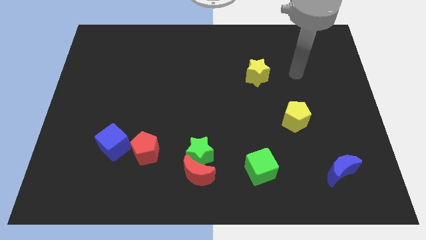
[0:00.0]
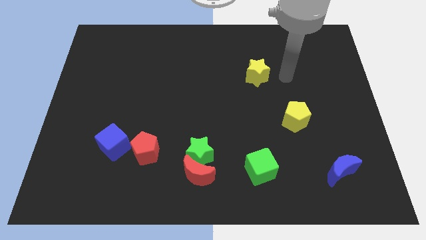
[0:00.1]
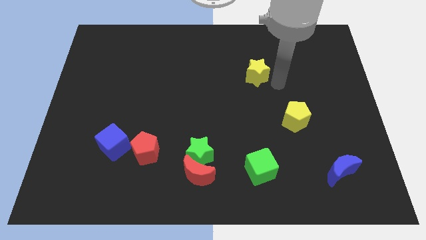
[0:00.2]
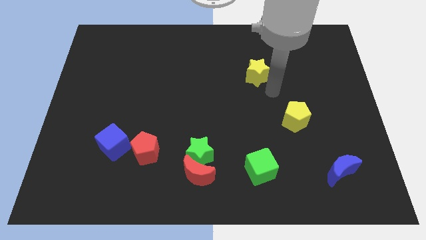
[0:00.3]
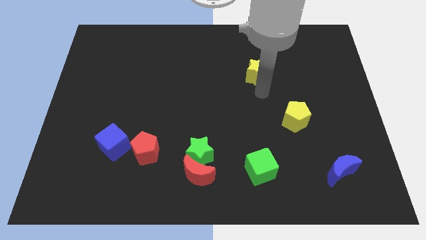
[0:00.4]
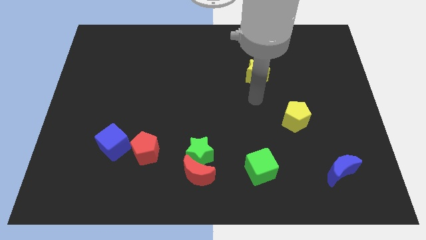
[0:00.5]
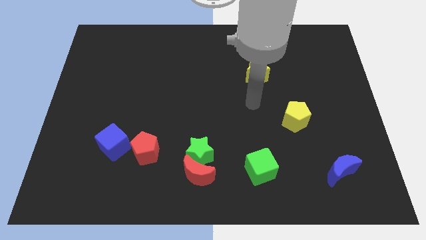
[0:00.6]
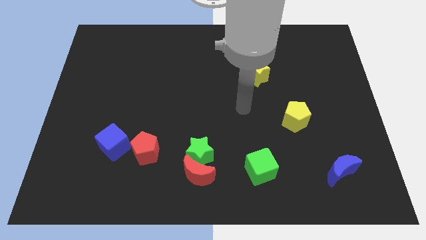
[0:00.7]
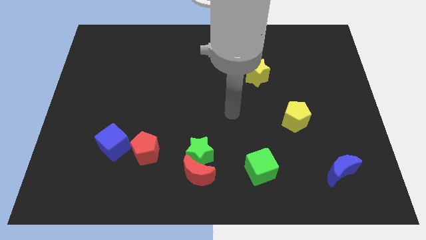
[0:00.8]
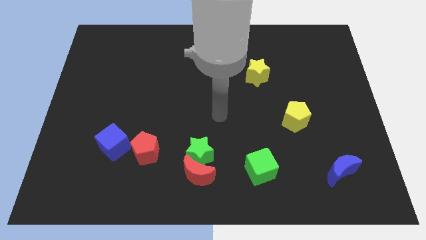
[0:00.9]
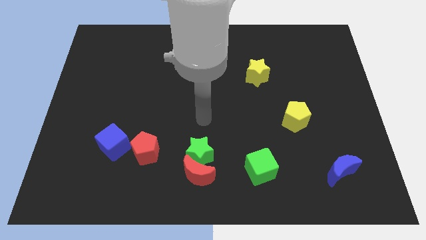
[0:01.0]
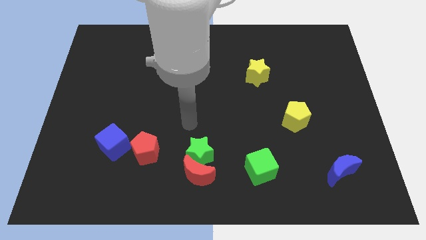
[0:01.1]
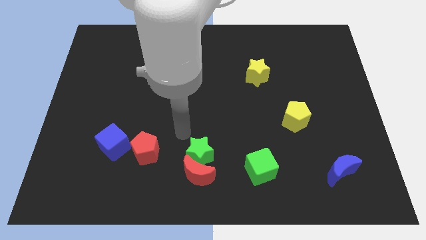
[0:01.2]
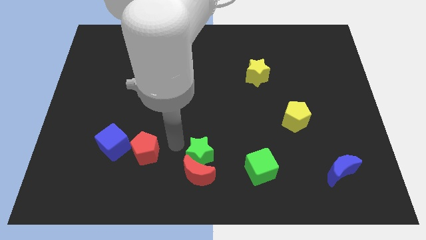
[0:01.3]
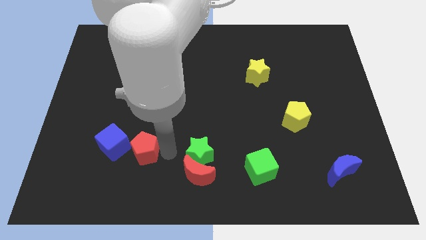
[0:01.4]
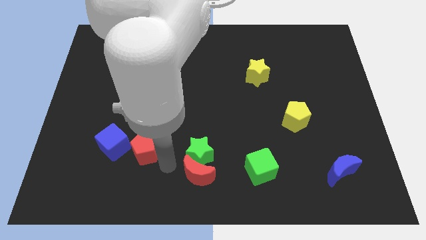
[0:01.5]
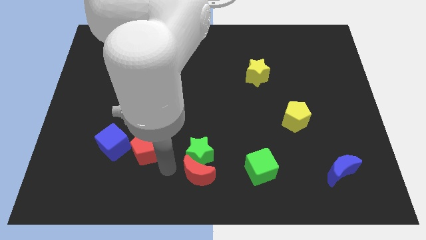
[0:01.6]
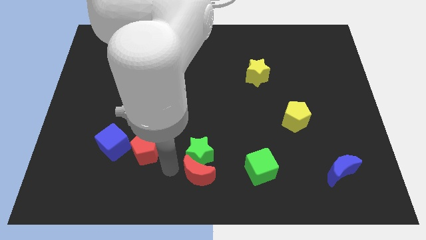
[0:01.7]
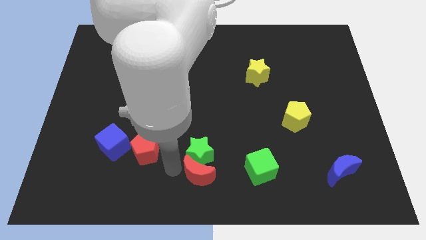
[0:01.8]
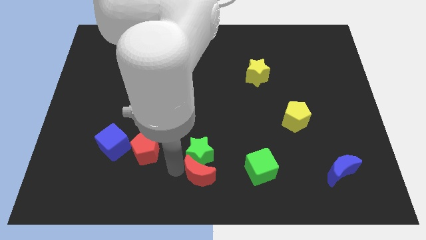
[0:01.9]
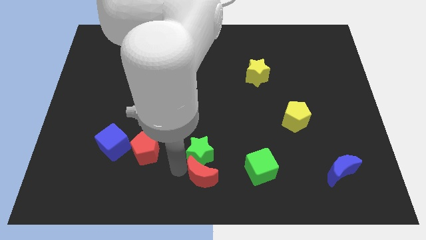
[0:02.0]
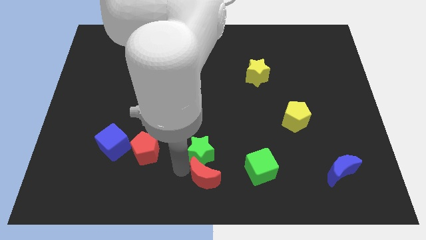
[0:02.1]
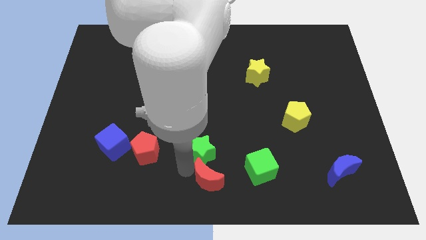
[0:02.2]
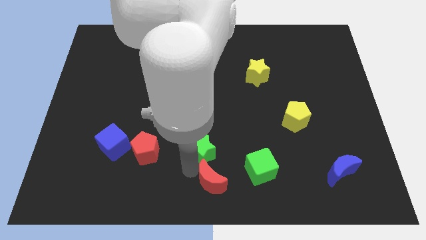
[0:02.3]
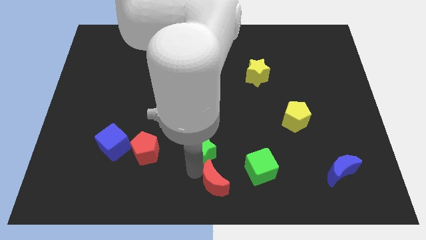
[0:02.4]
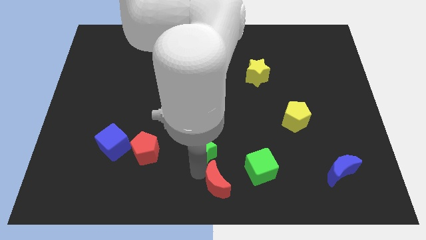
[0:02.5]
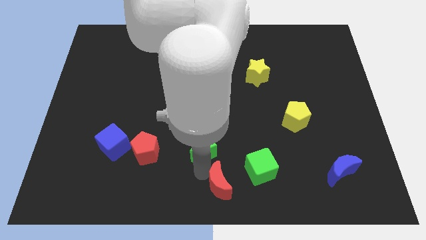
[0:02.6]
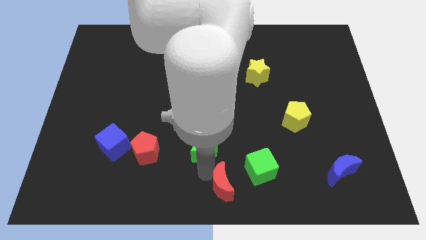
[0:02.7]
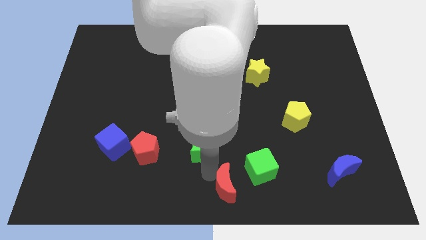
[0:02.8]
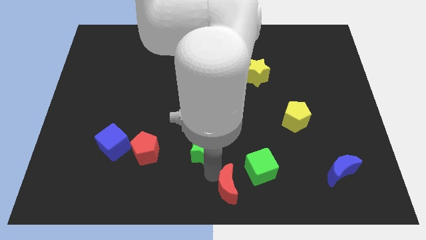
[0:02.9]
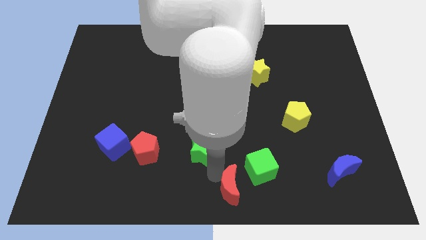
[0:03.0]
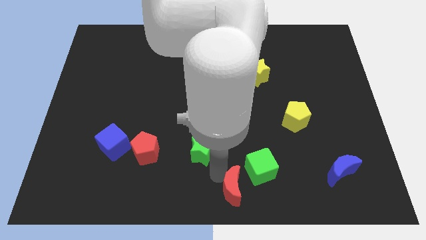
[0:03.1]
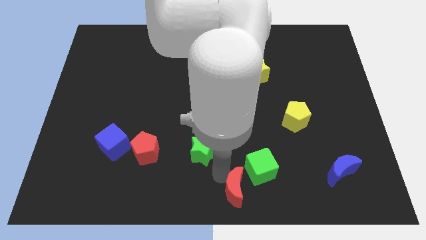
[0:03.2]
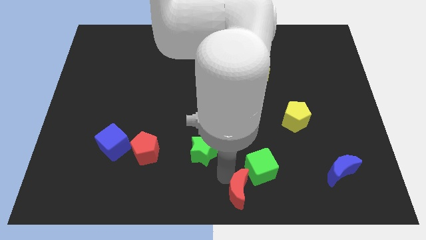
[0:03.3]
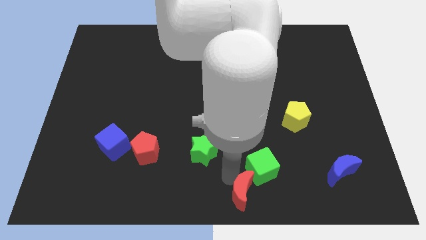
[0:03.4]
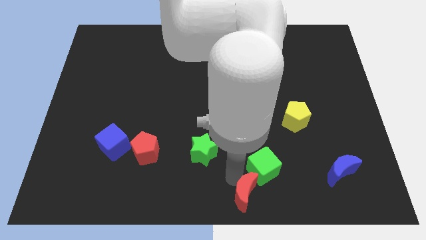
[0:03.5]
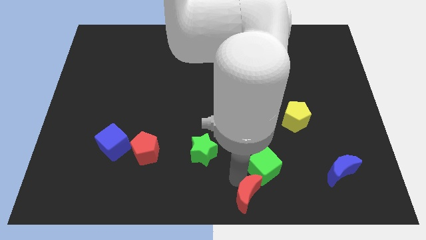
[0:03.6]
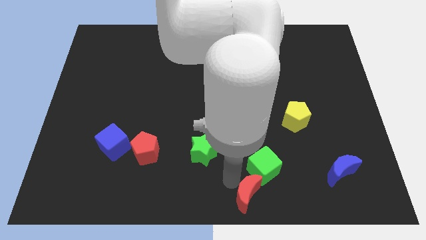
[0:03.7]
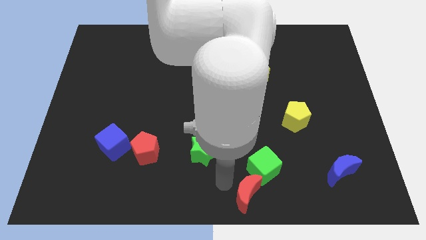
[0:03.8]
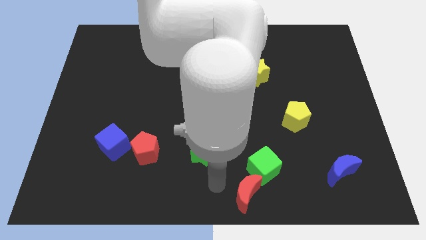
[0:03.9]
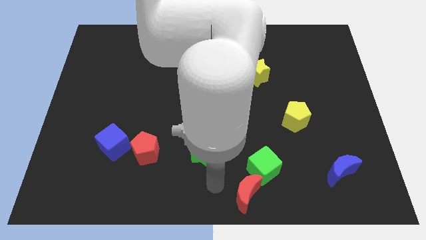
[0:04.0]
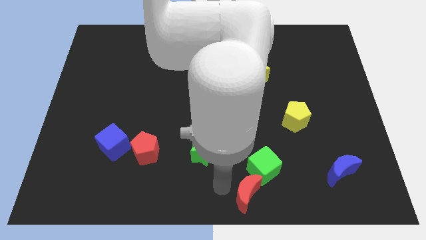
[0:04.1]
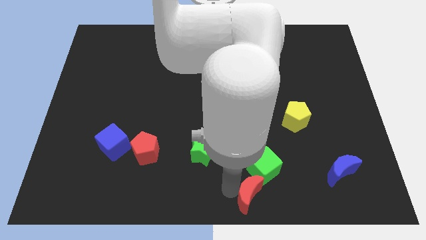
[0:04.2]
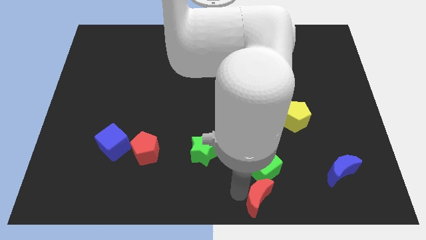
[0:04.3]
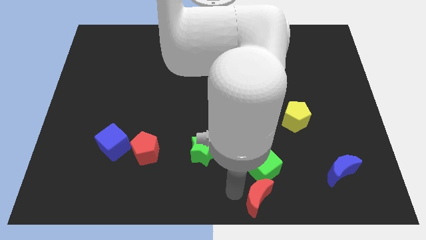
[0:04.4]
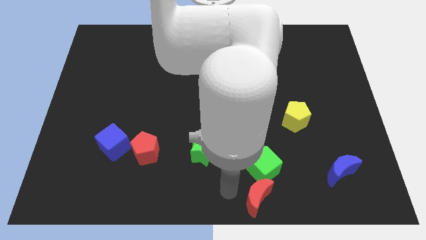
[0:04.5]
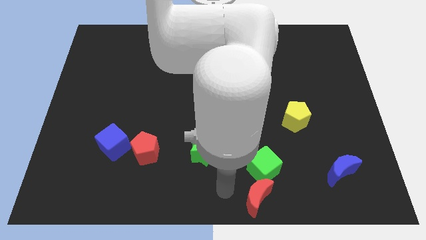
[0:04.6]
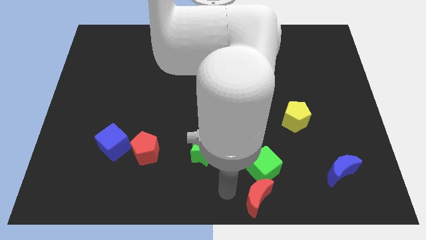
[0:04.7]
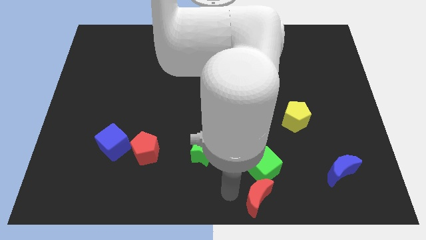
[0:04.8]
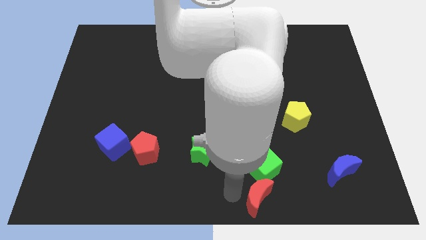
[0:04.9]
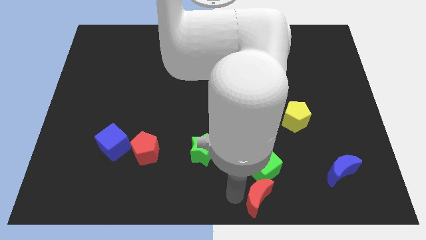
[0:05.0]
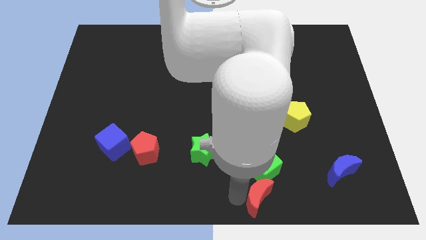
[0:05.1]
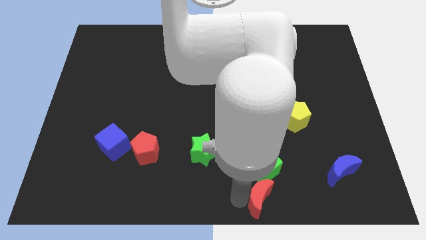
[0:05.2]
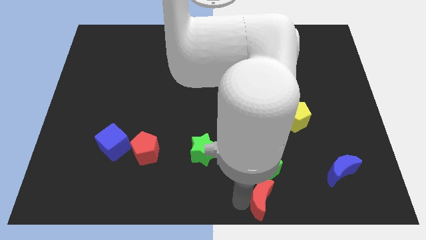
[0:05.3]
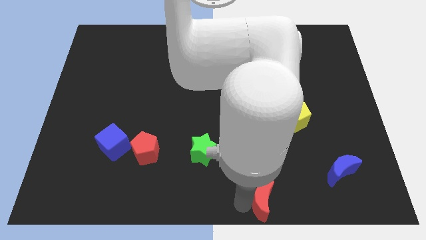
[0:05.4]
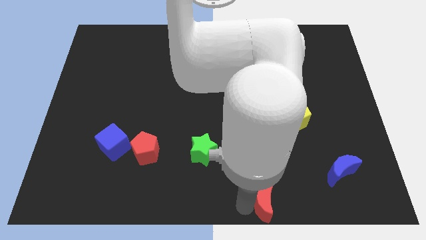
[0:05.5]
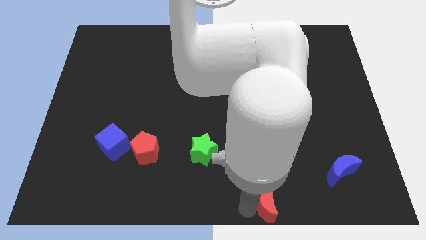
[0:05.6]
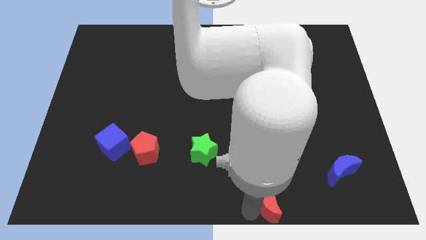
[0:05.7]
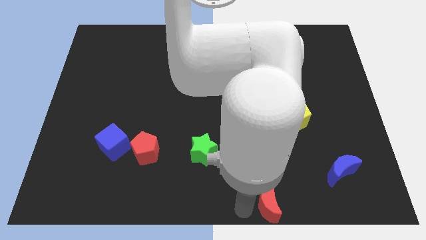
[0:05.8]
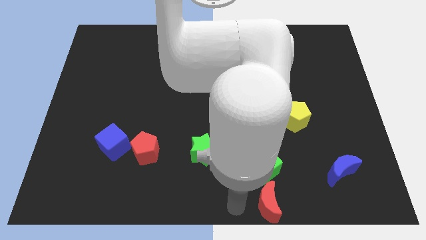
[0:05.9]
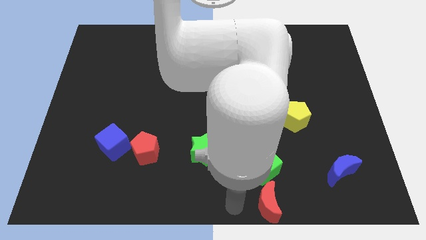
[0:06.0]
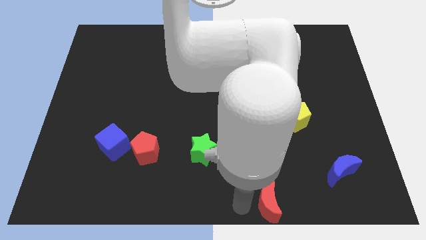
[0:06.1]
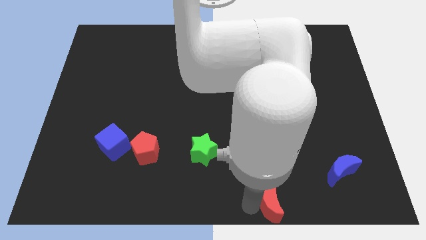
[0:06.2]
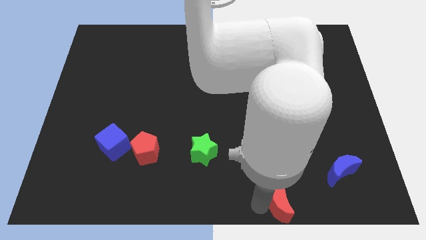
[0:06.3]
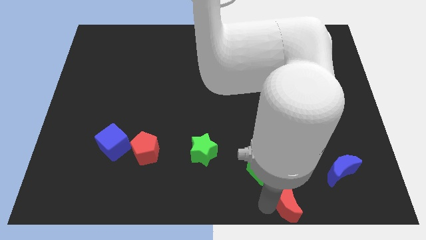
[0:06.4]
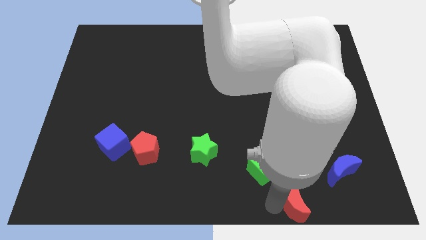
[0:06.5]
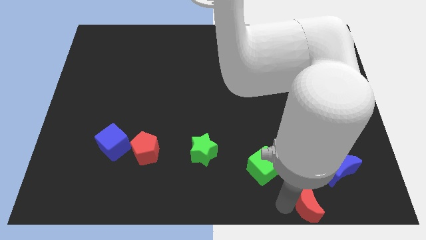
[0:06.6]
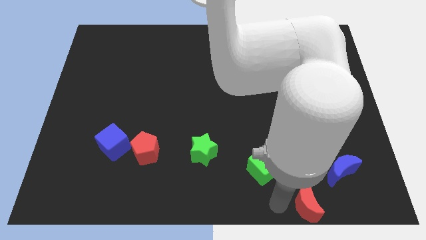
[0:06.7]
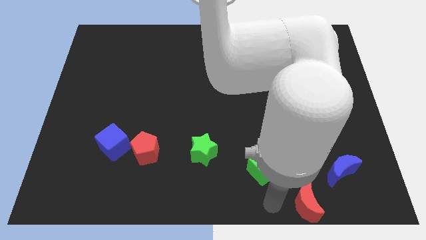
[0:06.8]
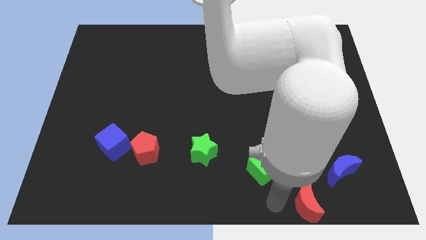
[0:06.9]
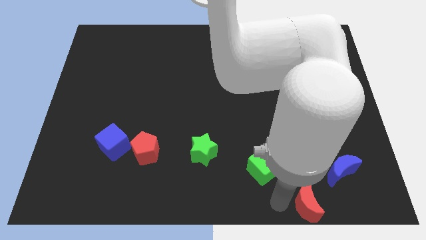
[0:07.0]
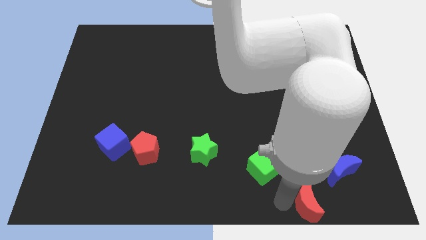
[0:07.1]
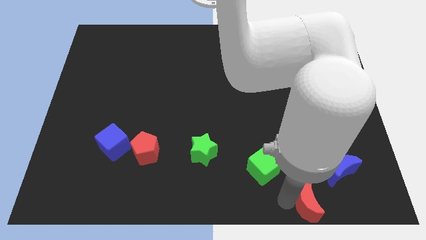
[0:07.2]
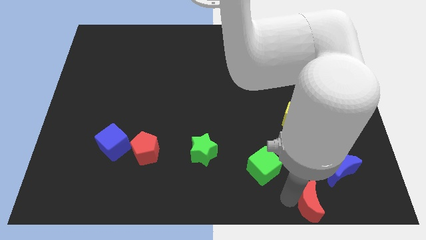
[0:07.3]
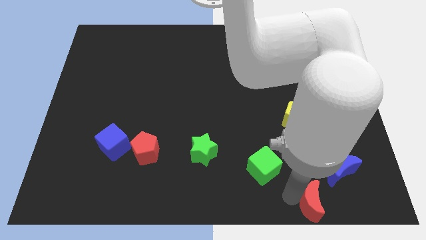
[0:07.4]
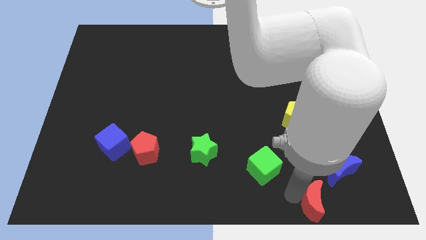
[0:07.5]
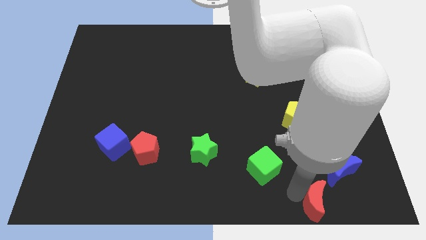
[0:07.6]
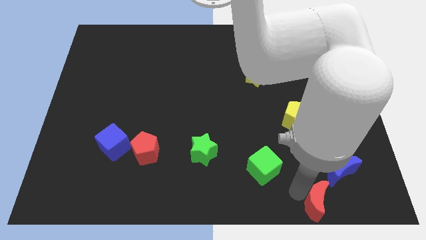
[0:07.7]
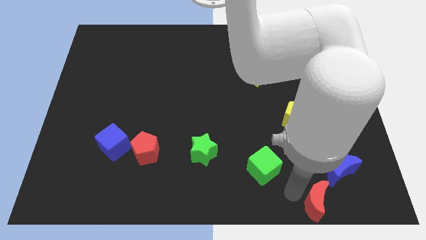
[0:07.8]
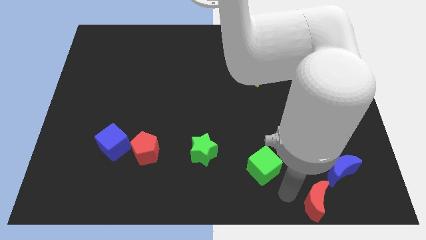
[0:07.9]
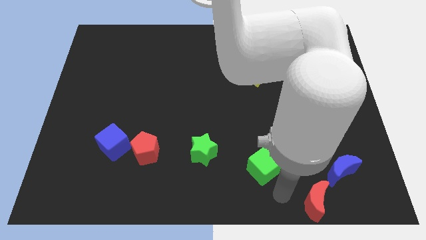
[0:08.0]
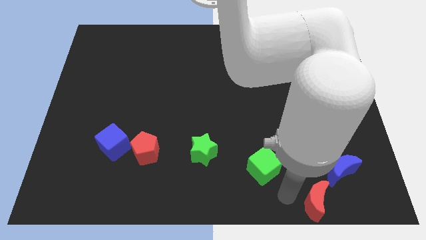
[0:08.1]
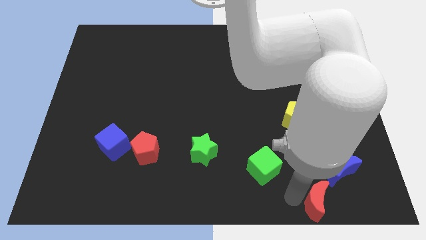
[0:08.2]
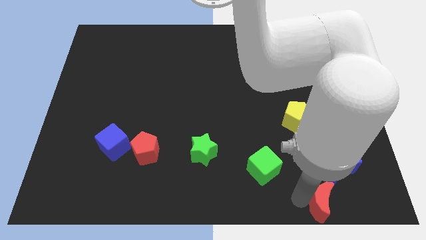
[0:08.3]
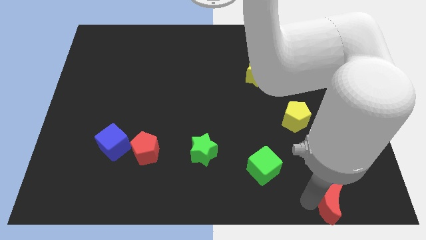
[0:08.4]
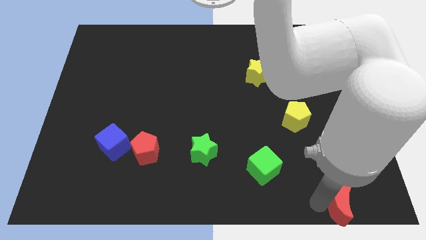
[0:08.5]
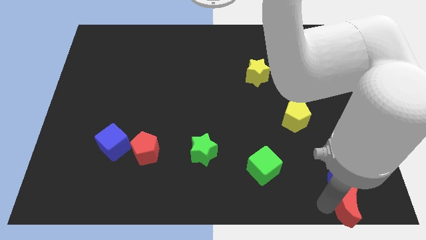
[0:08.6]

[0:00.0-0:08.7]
put the red moon to the bottom right of the board
